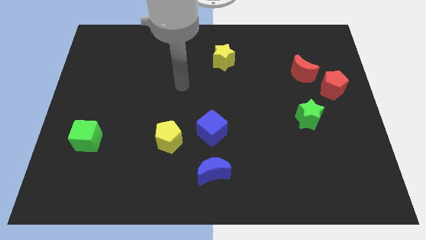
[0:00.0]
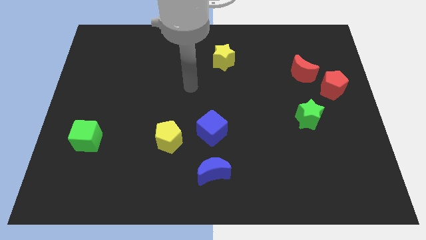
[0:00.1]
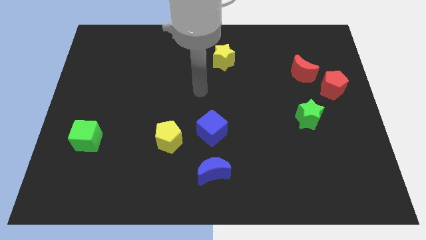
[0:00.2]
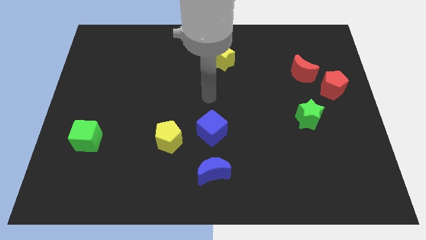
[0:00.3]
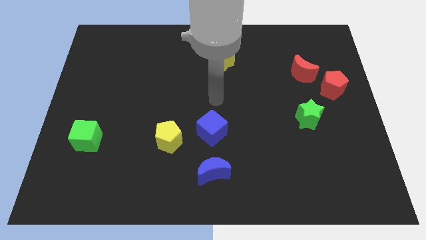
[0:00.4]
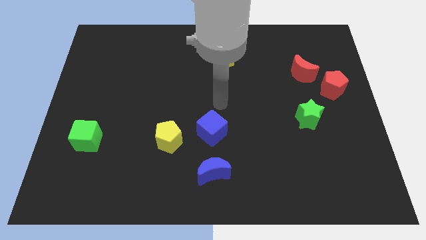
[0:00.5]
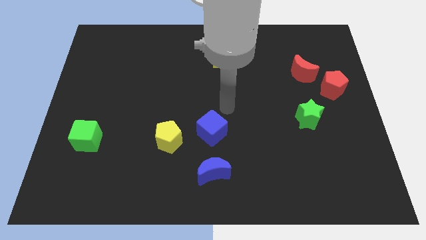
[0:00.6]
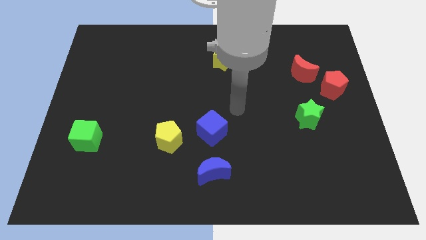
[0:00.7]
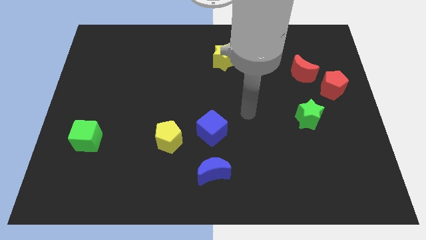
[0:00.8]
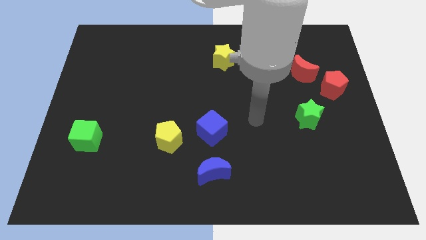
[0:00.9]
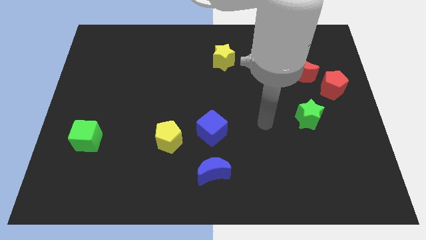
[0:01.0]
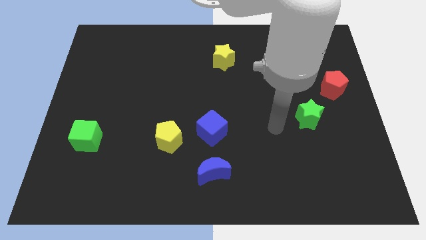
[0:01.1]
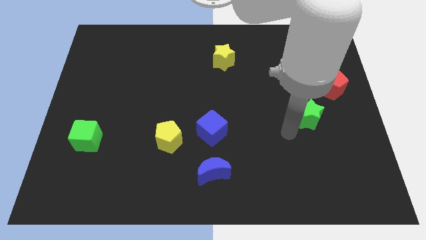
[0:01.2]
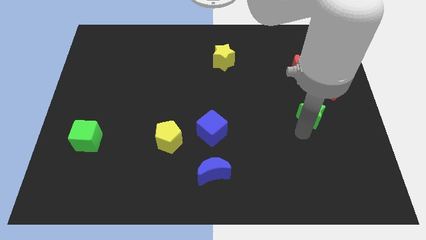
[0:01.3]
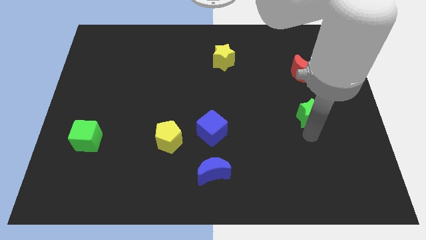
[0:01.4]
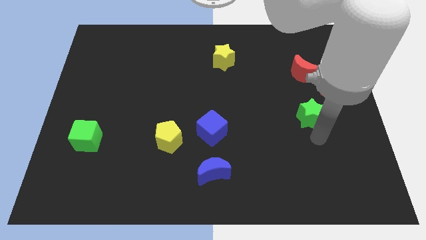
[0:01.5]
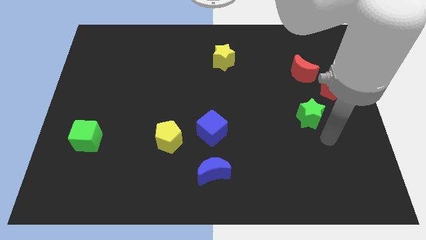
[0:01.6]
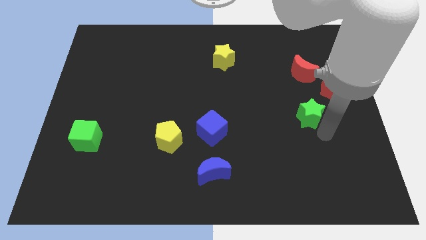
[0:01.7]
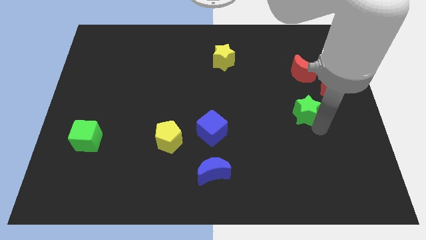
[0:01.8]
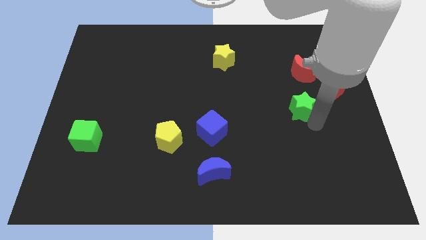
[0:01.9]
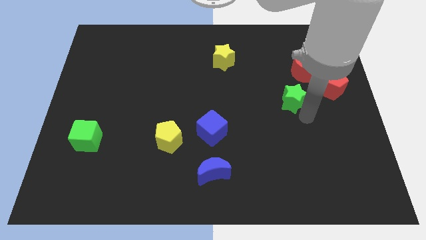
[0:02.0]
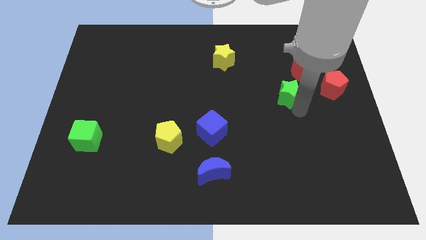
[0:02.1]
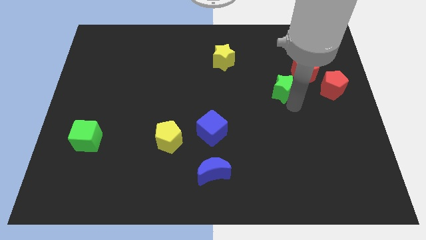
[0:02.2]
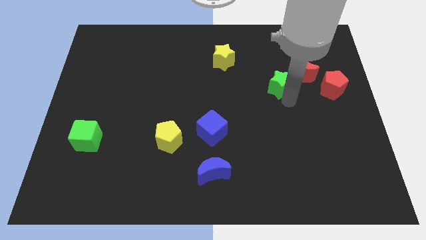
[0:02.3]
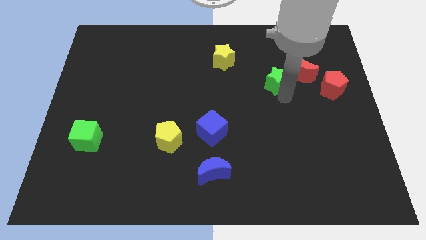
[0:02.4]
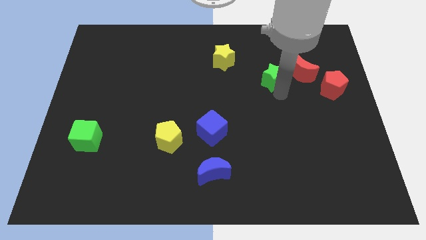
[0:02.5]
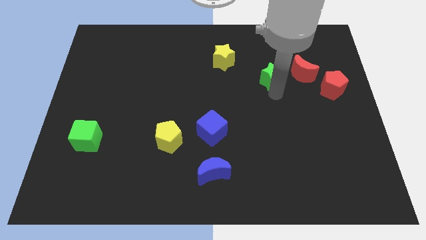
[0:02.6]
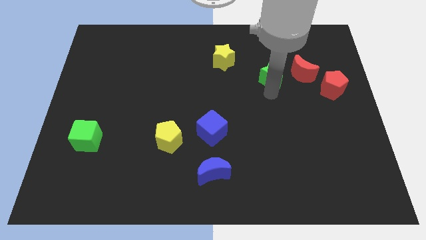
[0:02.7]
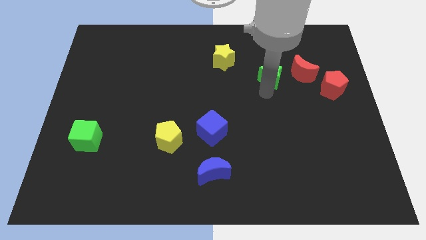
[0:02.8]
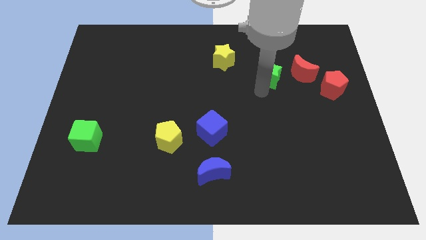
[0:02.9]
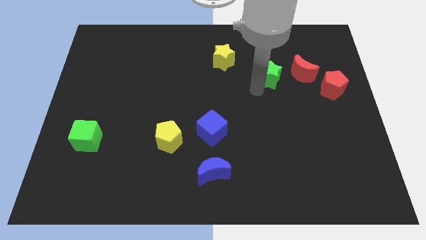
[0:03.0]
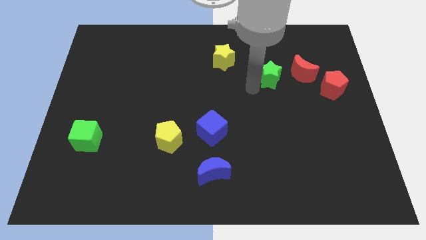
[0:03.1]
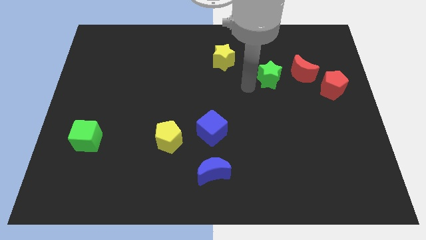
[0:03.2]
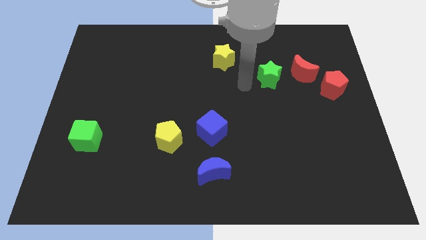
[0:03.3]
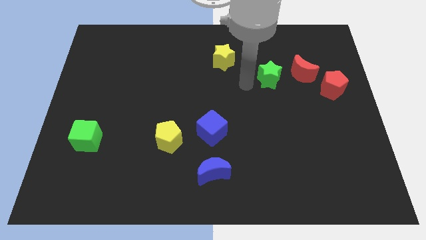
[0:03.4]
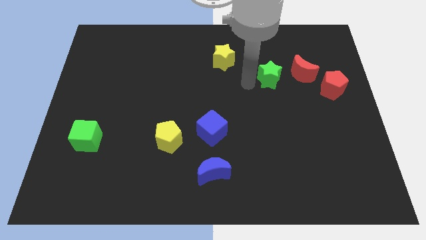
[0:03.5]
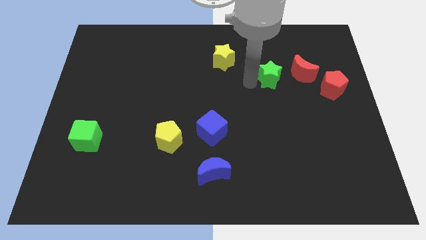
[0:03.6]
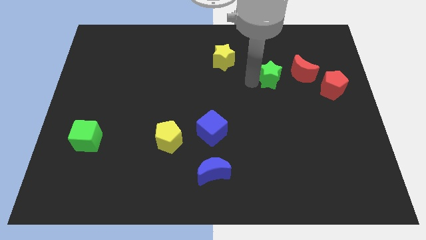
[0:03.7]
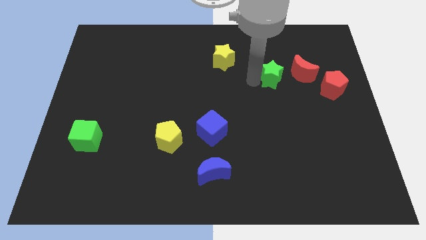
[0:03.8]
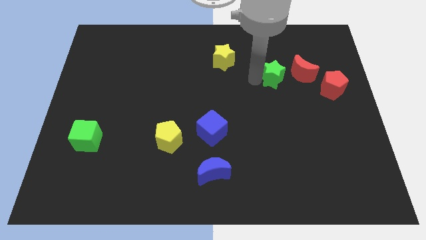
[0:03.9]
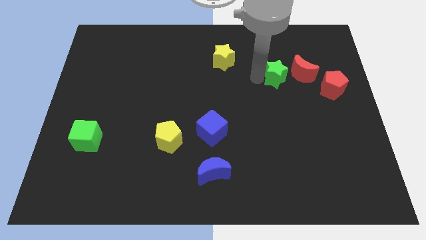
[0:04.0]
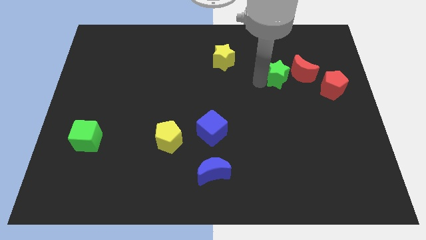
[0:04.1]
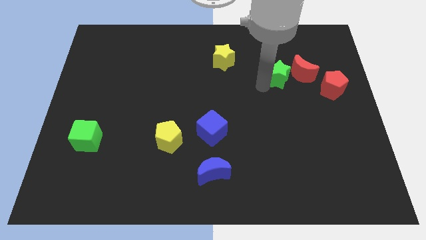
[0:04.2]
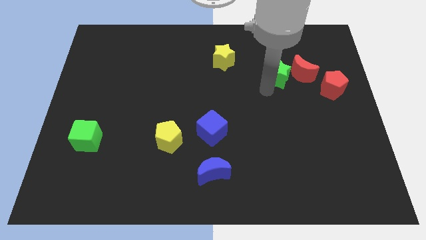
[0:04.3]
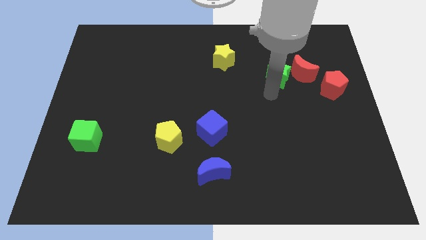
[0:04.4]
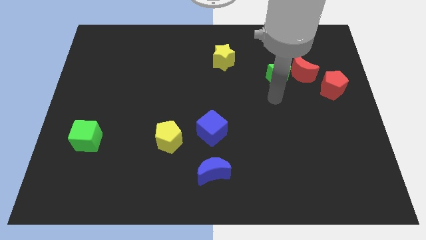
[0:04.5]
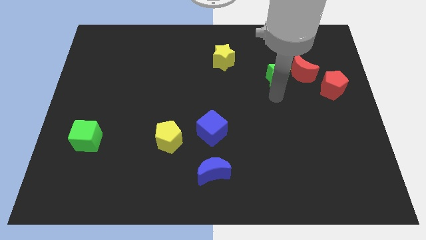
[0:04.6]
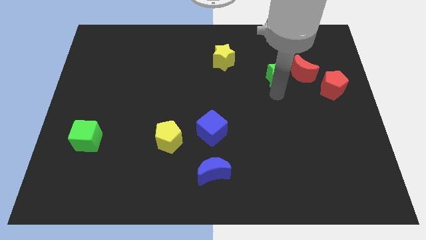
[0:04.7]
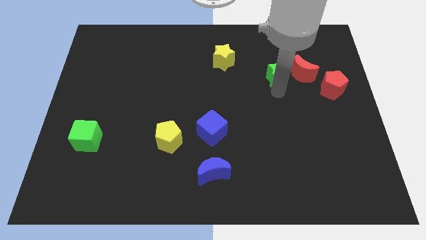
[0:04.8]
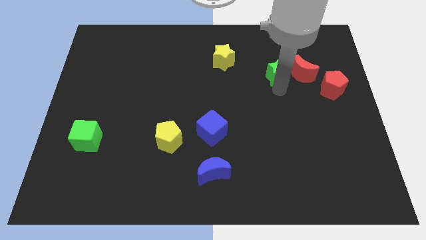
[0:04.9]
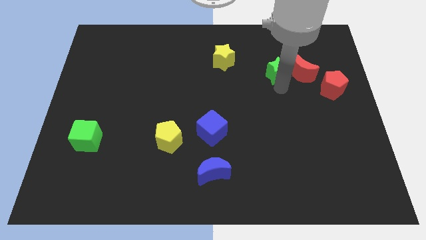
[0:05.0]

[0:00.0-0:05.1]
slide the green star to the top left of the red moon

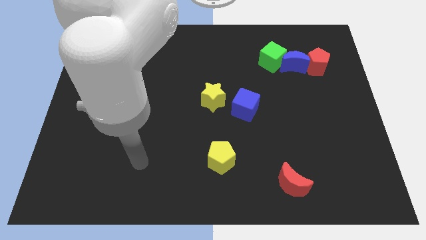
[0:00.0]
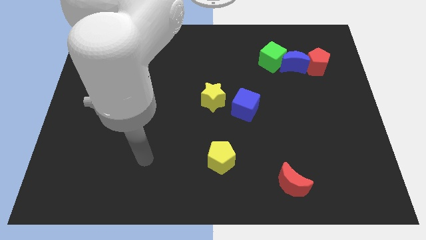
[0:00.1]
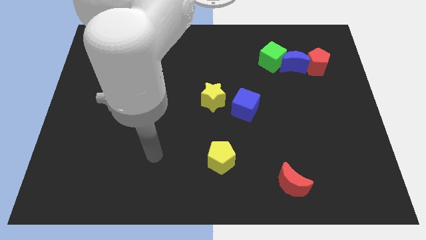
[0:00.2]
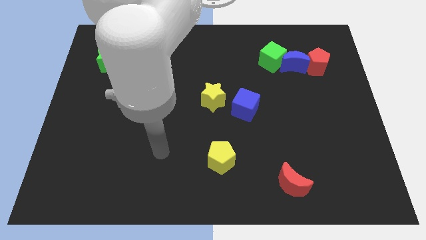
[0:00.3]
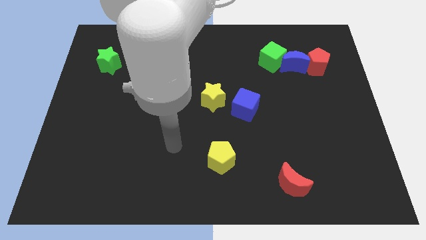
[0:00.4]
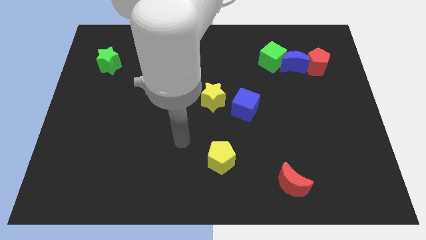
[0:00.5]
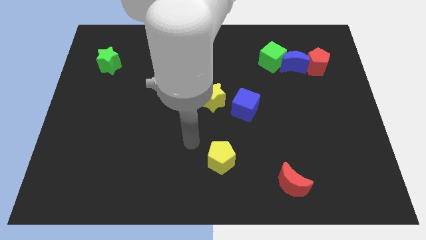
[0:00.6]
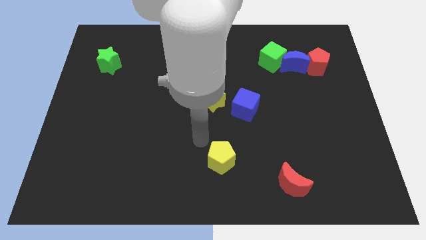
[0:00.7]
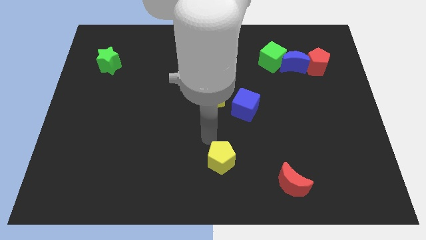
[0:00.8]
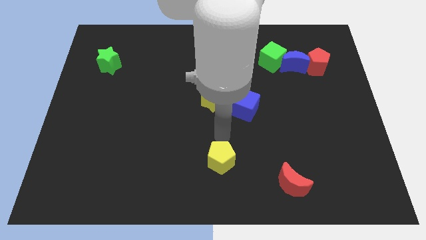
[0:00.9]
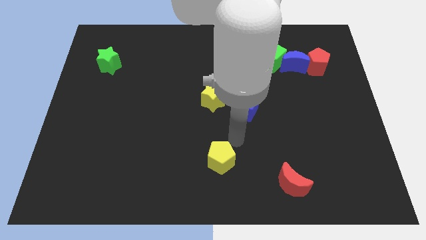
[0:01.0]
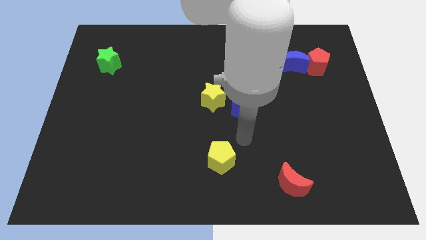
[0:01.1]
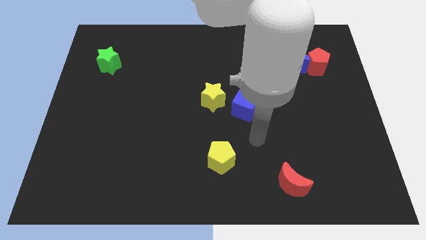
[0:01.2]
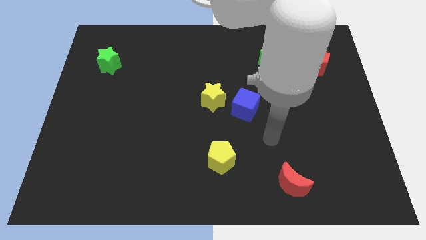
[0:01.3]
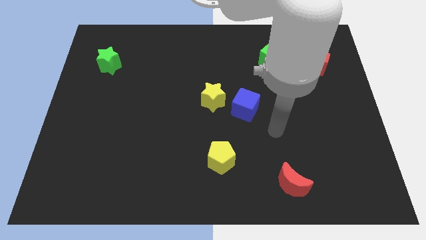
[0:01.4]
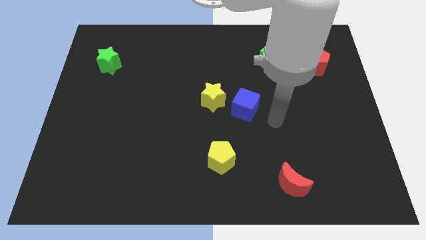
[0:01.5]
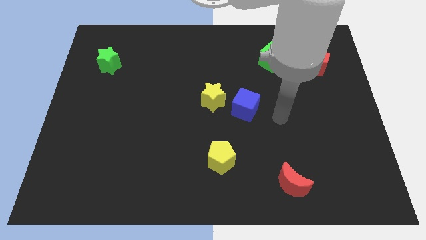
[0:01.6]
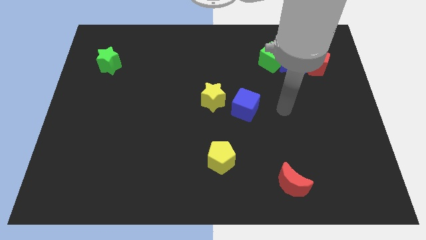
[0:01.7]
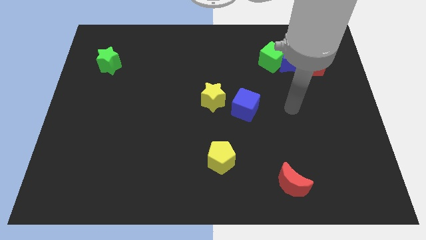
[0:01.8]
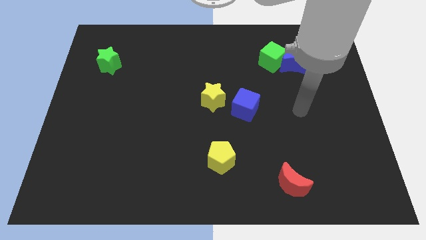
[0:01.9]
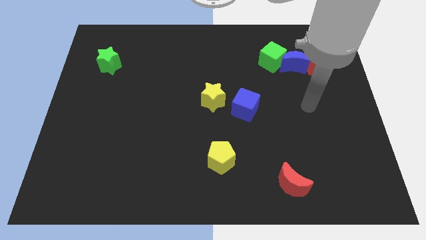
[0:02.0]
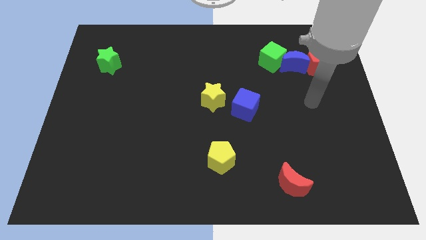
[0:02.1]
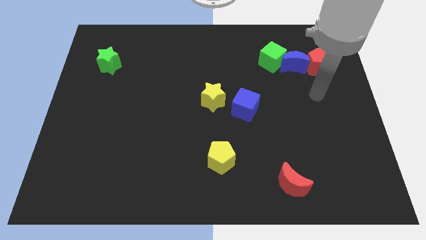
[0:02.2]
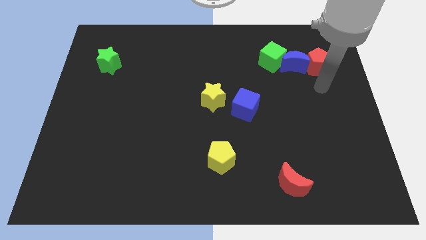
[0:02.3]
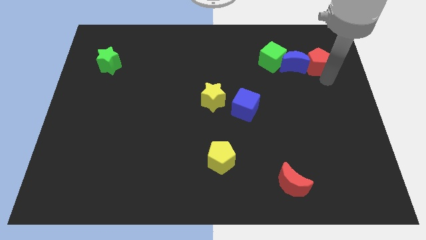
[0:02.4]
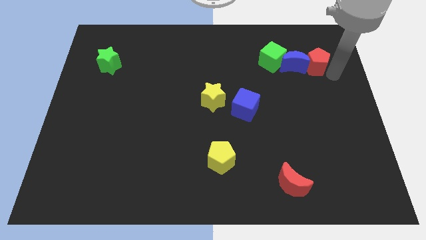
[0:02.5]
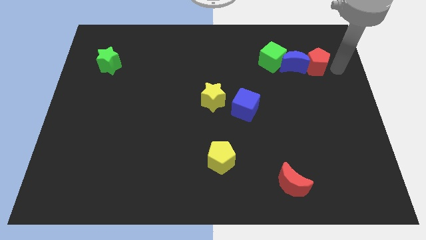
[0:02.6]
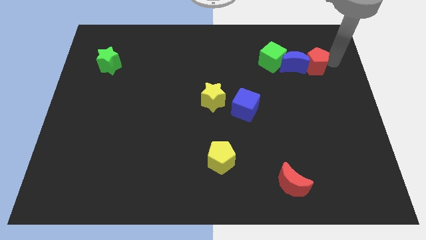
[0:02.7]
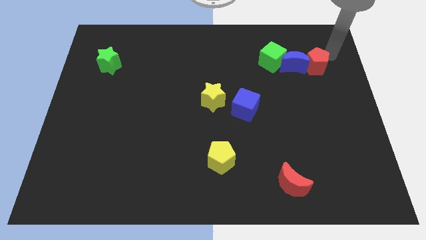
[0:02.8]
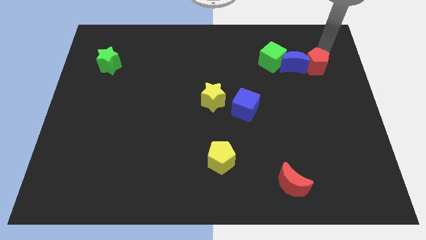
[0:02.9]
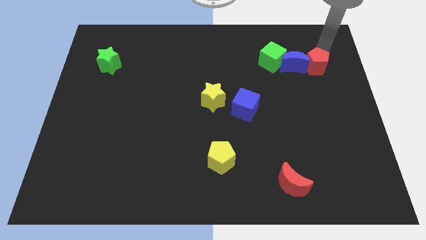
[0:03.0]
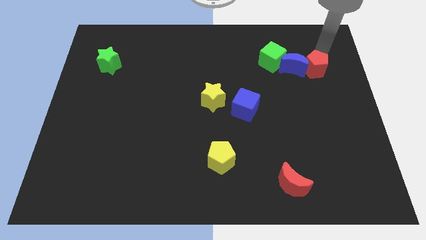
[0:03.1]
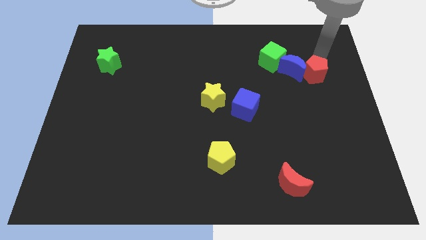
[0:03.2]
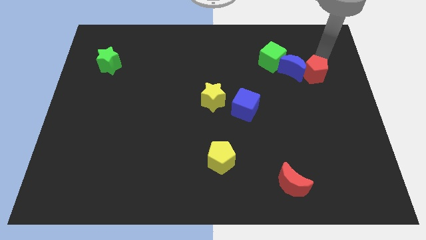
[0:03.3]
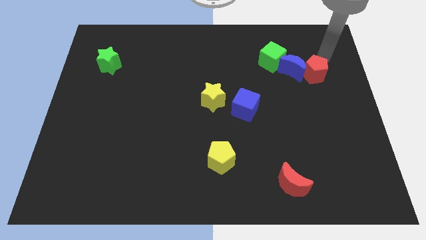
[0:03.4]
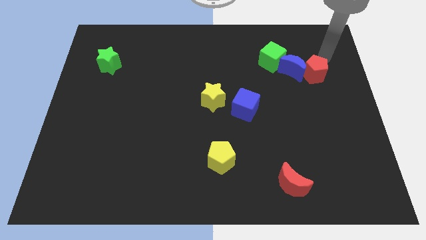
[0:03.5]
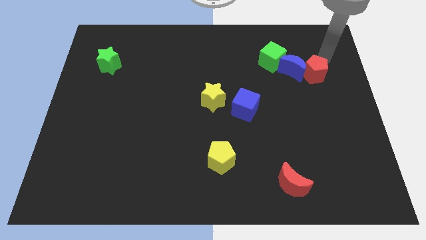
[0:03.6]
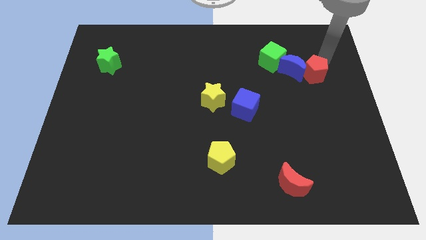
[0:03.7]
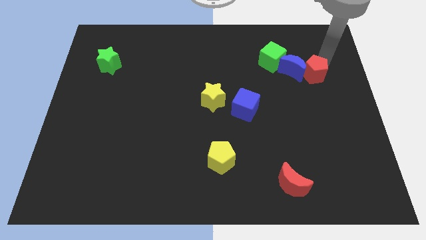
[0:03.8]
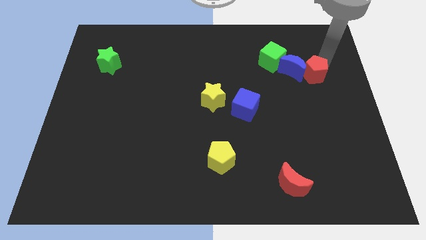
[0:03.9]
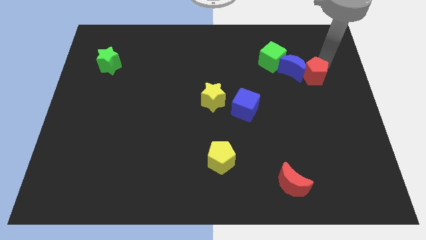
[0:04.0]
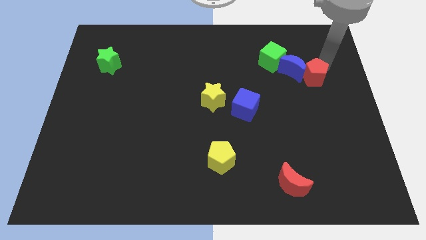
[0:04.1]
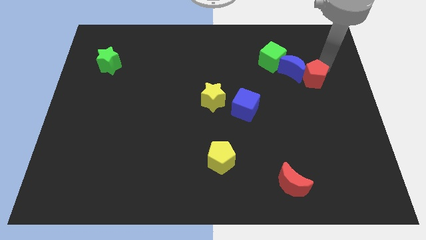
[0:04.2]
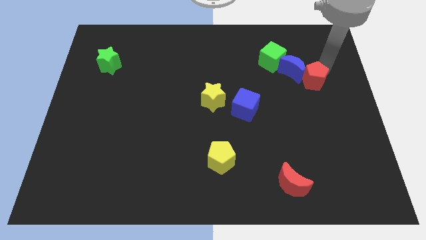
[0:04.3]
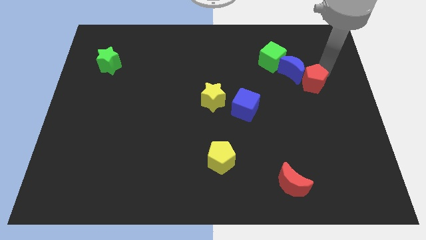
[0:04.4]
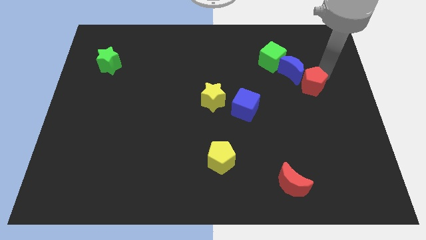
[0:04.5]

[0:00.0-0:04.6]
push the red pentagon below the blue moon
